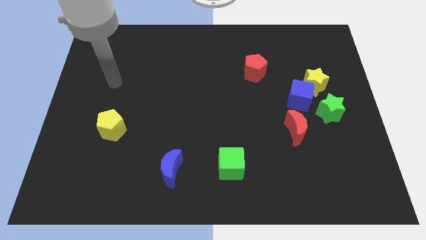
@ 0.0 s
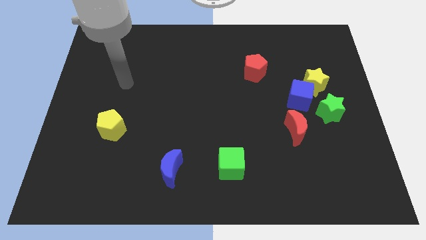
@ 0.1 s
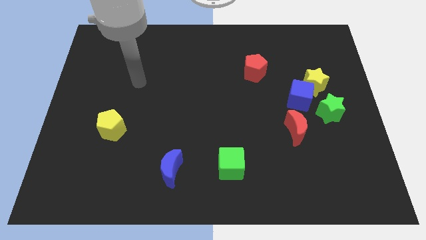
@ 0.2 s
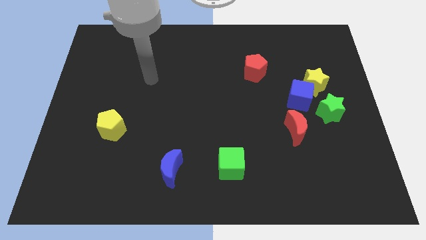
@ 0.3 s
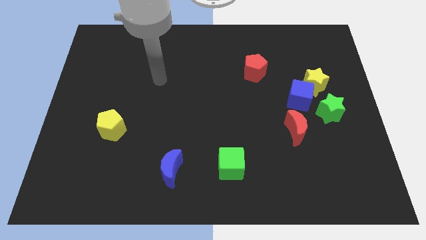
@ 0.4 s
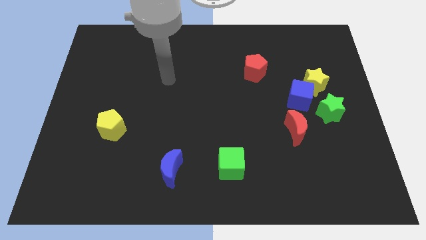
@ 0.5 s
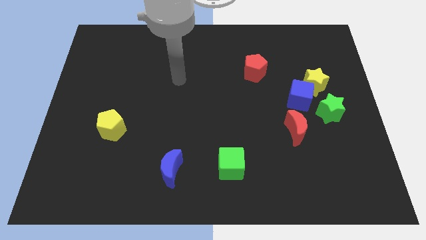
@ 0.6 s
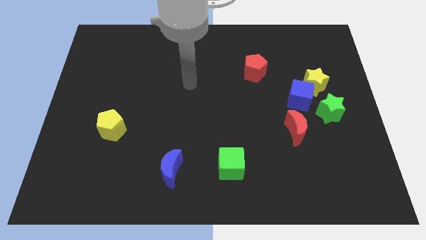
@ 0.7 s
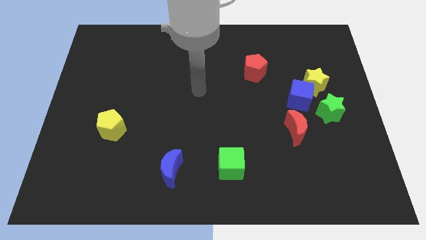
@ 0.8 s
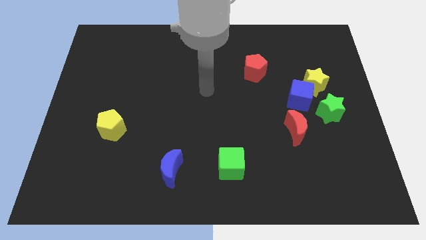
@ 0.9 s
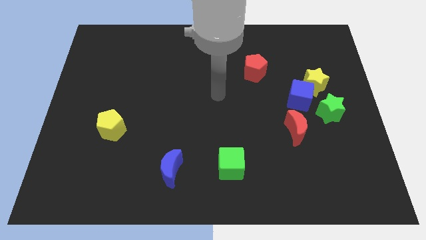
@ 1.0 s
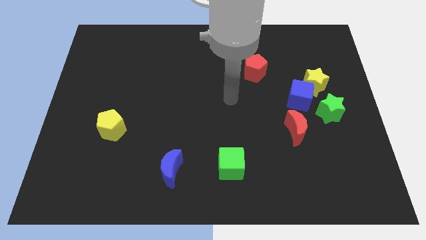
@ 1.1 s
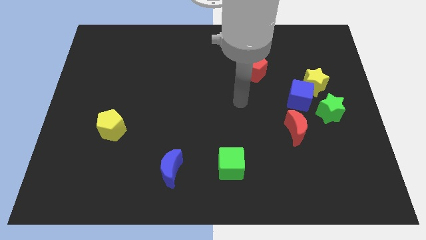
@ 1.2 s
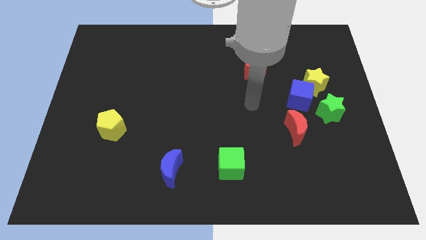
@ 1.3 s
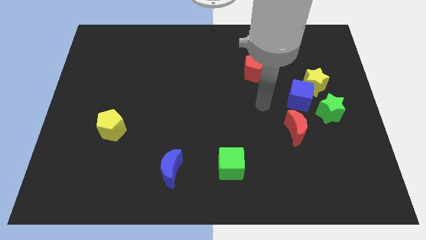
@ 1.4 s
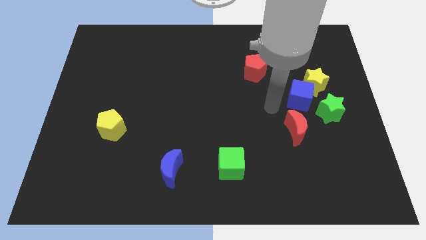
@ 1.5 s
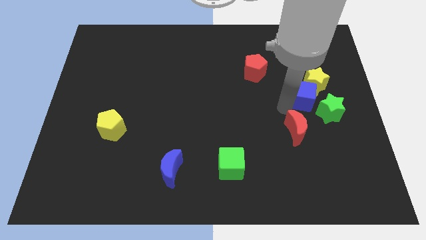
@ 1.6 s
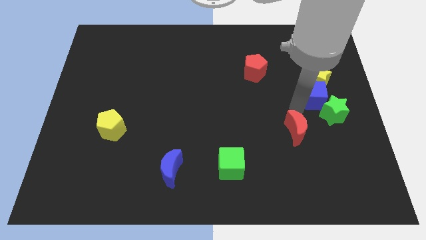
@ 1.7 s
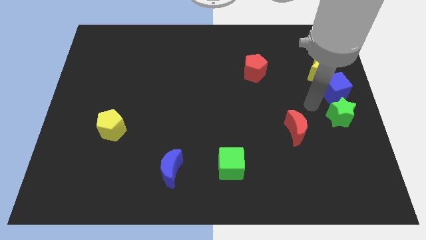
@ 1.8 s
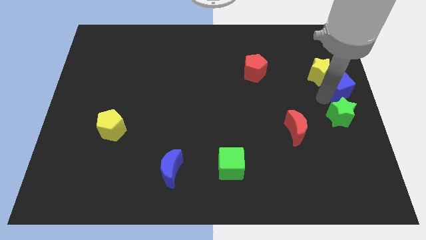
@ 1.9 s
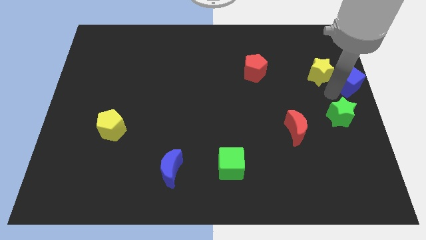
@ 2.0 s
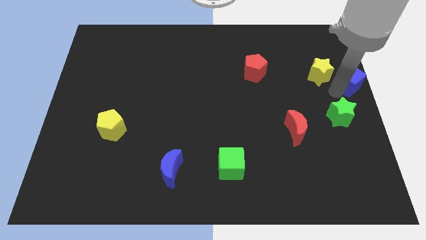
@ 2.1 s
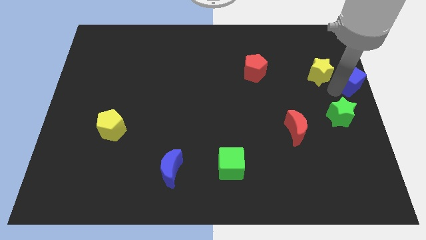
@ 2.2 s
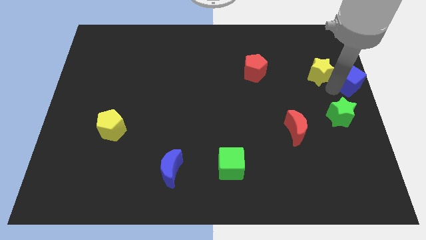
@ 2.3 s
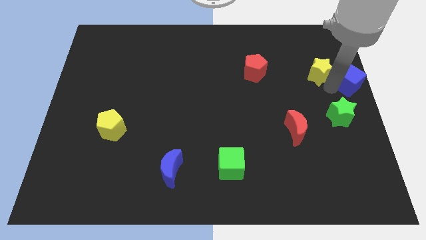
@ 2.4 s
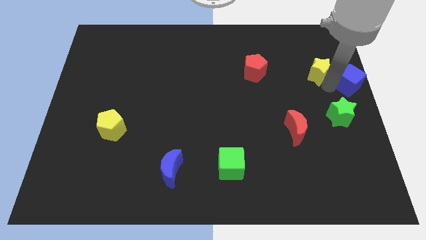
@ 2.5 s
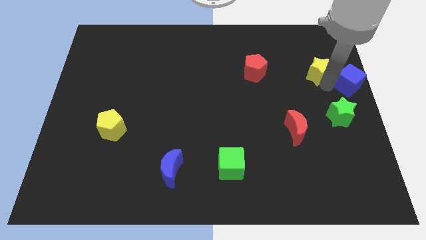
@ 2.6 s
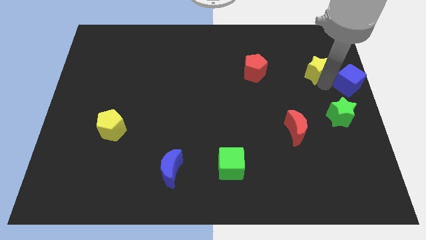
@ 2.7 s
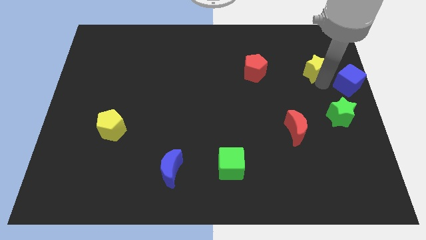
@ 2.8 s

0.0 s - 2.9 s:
move the yellow star away from the blue cube and green star

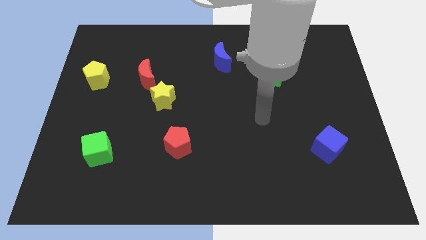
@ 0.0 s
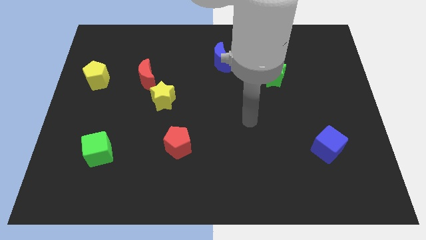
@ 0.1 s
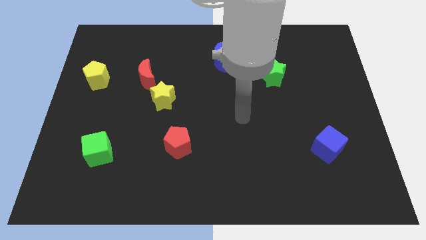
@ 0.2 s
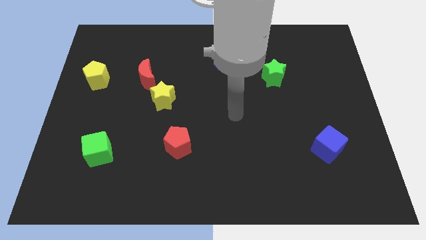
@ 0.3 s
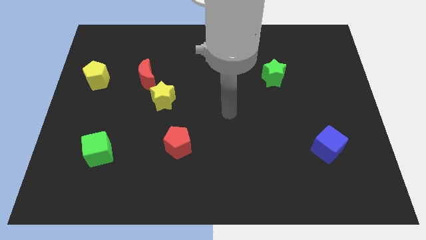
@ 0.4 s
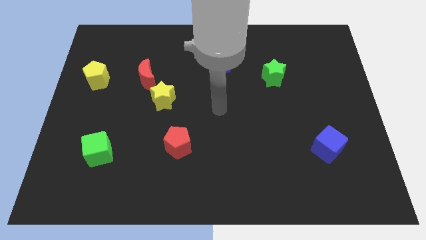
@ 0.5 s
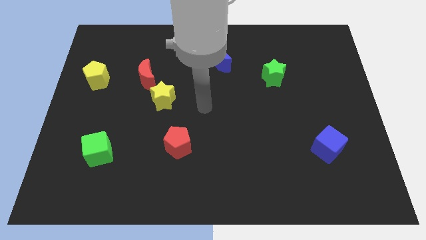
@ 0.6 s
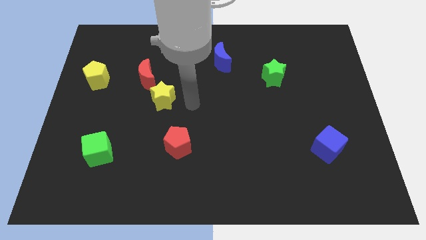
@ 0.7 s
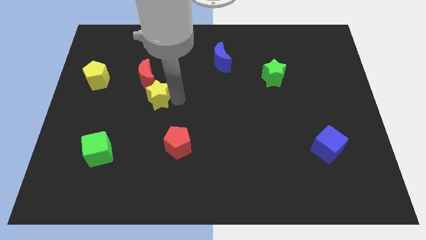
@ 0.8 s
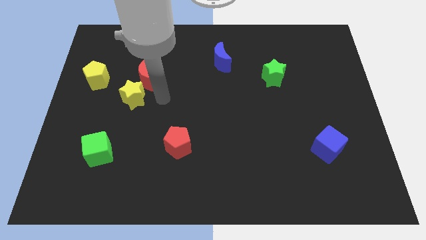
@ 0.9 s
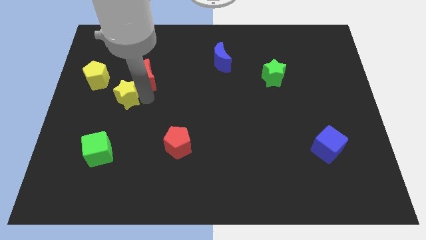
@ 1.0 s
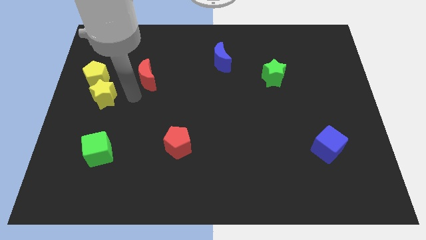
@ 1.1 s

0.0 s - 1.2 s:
separate the red moon from the yellow star

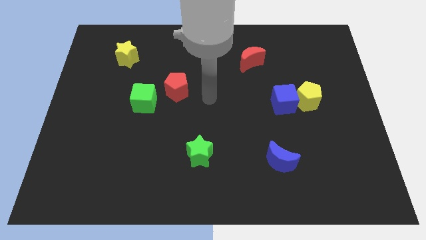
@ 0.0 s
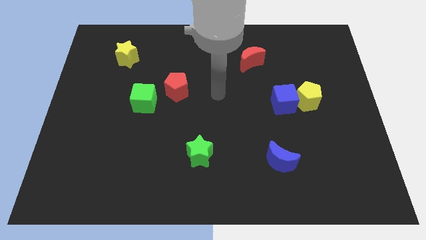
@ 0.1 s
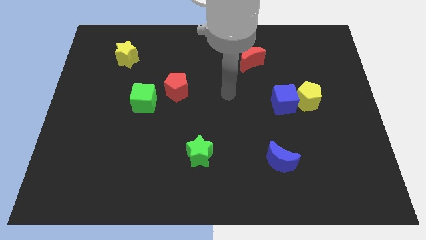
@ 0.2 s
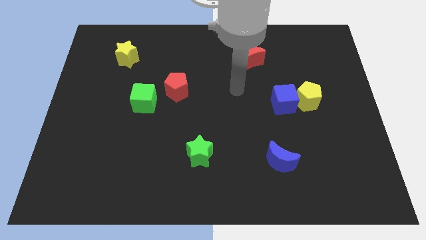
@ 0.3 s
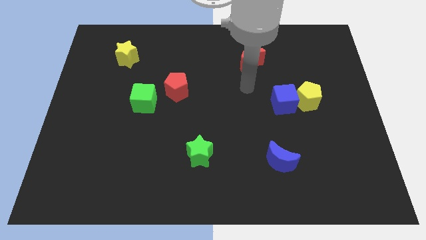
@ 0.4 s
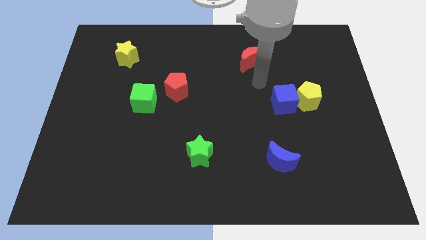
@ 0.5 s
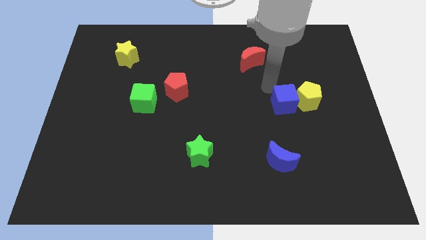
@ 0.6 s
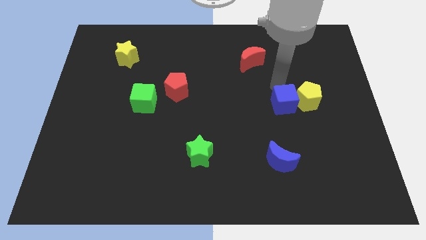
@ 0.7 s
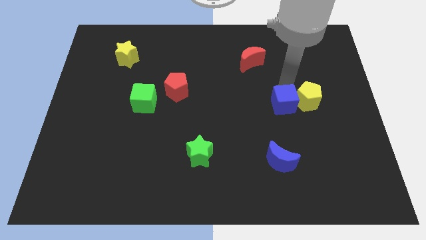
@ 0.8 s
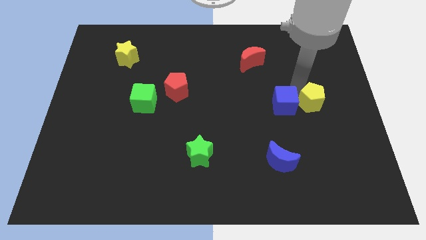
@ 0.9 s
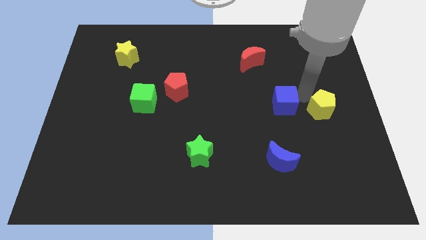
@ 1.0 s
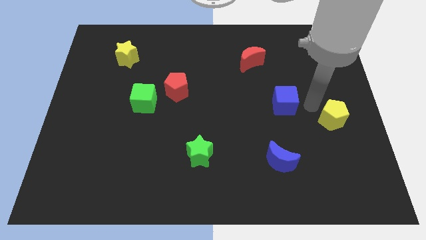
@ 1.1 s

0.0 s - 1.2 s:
separate the blue cube from the yellow pentagon

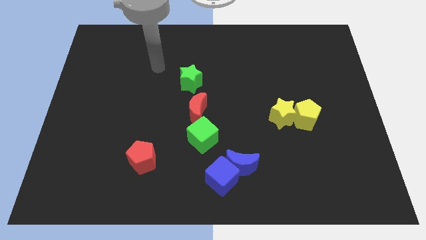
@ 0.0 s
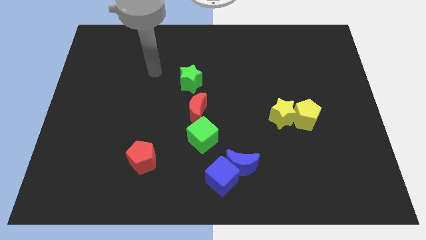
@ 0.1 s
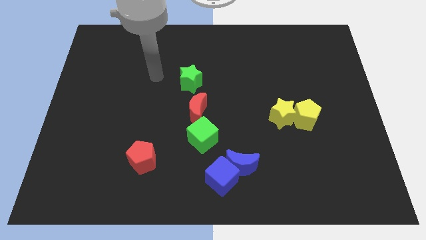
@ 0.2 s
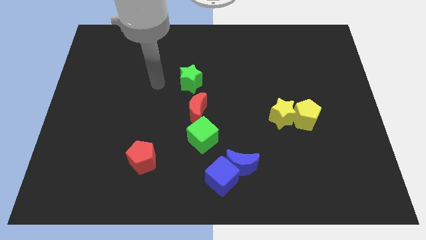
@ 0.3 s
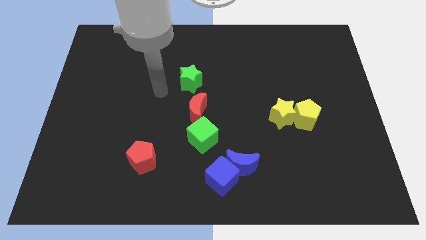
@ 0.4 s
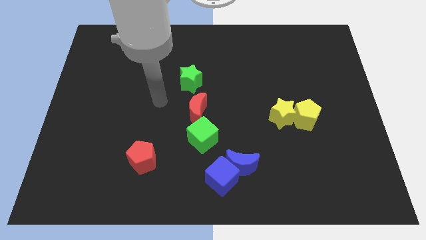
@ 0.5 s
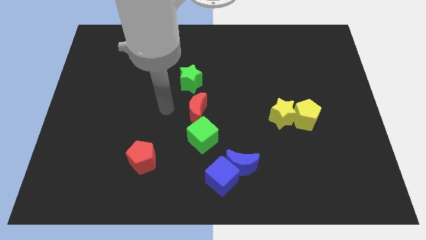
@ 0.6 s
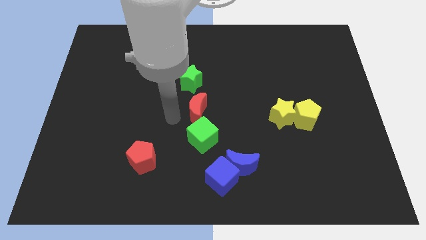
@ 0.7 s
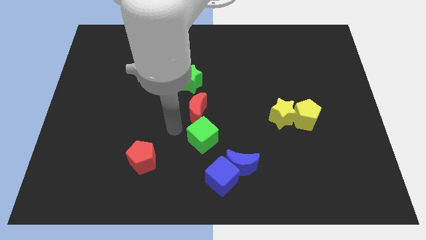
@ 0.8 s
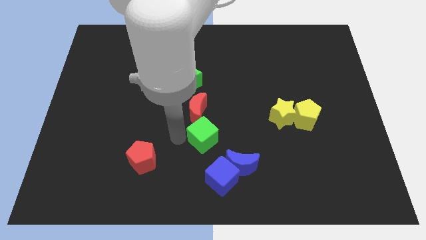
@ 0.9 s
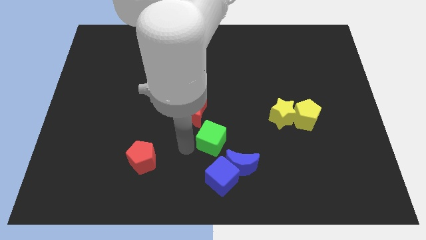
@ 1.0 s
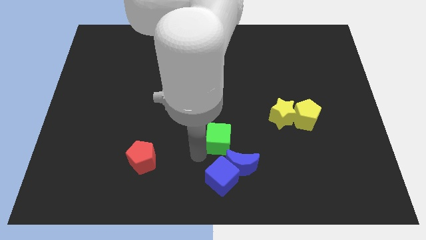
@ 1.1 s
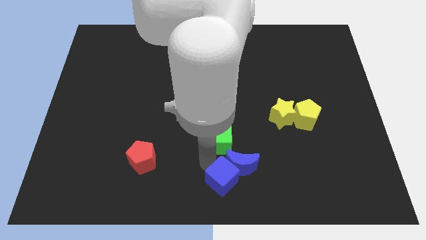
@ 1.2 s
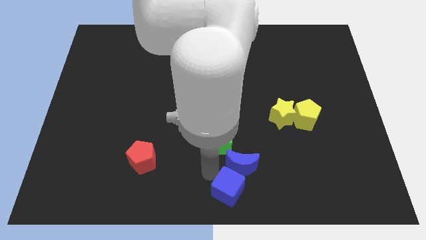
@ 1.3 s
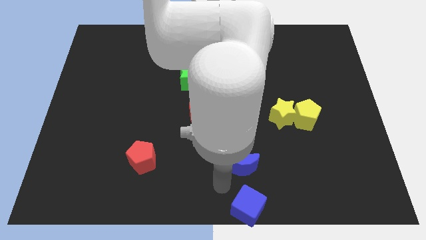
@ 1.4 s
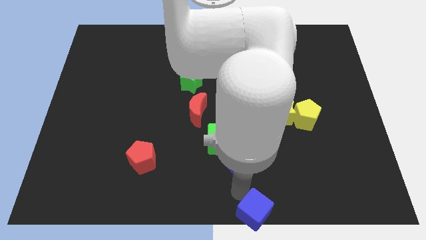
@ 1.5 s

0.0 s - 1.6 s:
pull the blue moon apart from the blue cube

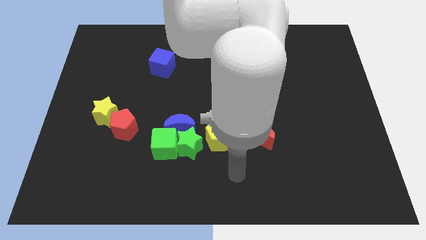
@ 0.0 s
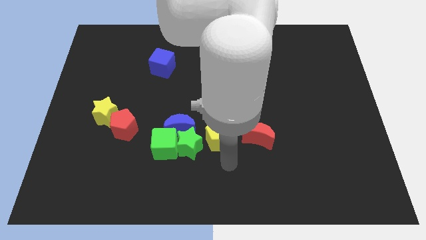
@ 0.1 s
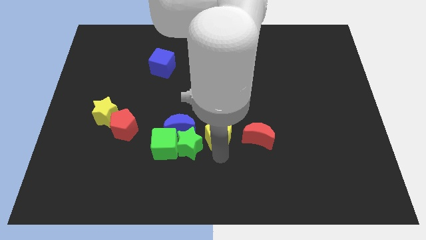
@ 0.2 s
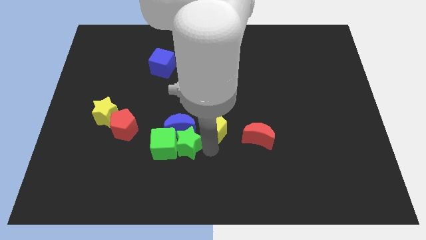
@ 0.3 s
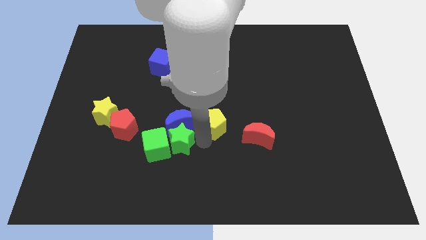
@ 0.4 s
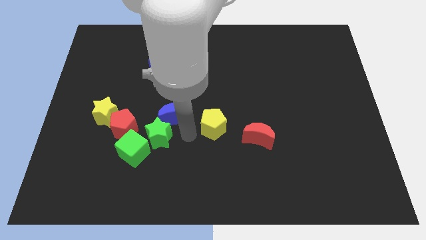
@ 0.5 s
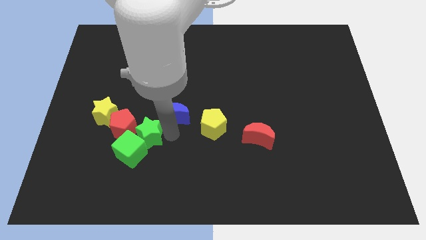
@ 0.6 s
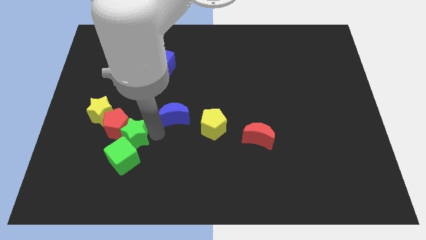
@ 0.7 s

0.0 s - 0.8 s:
separate the green cube from the green star and blue moon

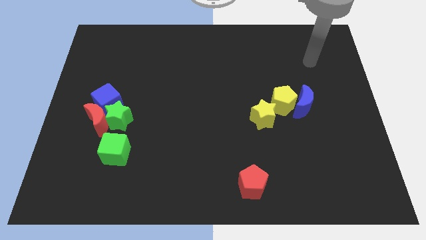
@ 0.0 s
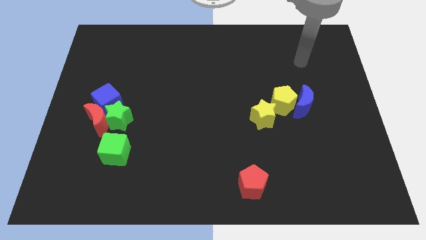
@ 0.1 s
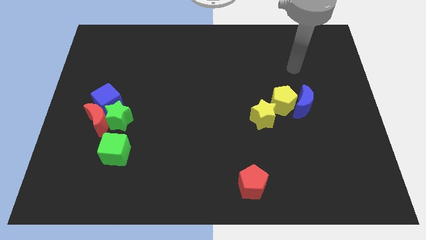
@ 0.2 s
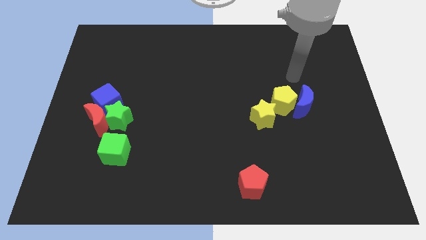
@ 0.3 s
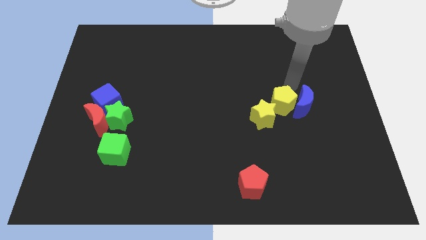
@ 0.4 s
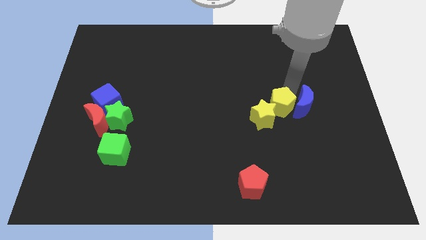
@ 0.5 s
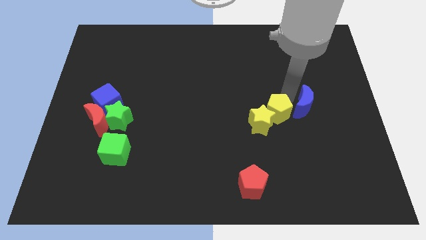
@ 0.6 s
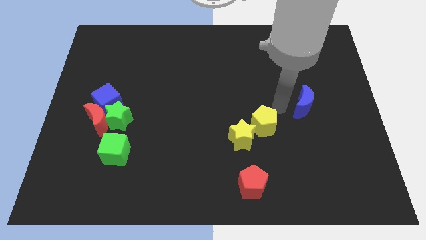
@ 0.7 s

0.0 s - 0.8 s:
move the blue moon away from the yellow pentagon

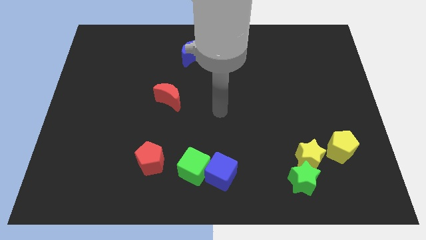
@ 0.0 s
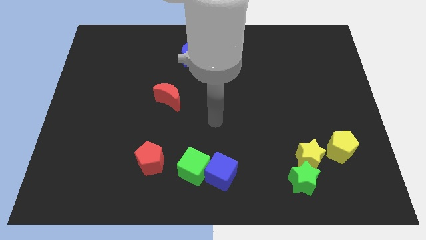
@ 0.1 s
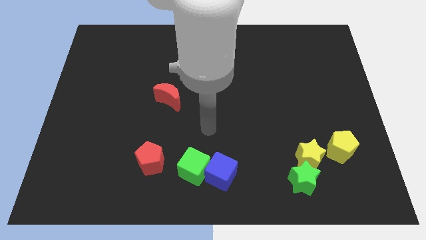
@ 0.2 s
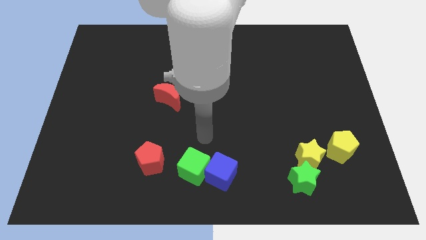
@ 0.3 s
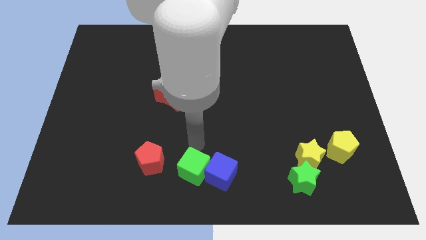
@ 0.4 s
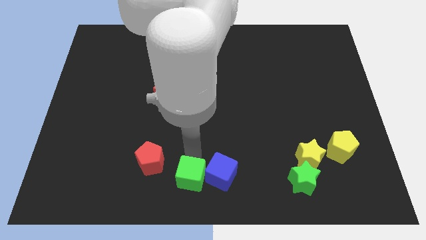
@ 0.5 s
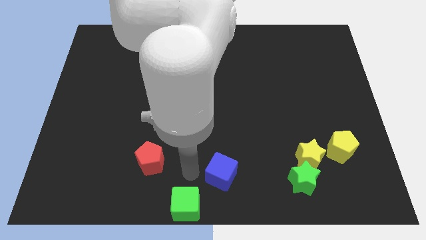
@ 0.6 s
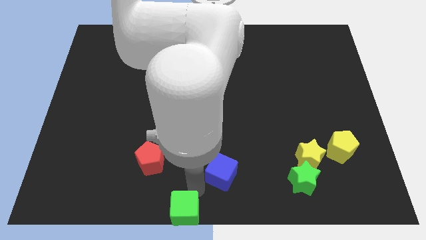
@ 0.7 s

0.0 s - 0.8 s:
separate the blue cube from the green cube
